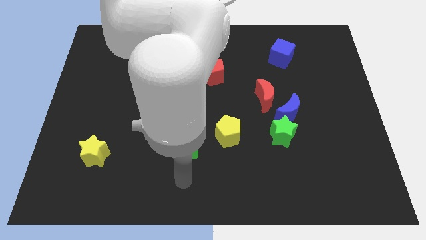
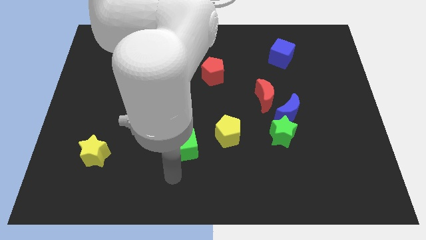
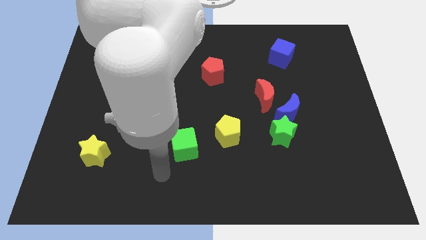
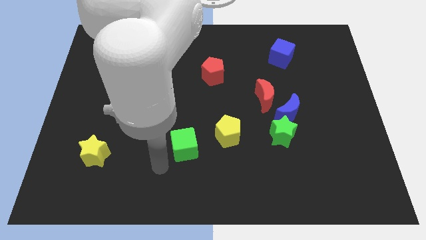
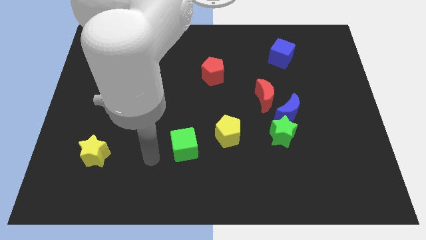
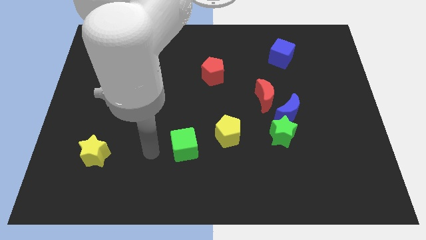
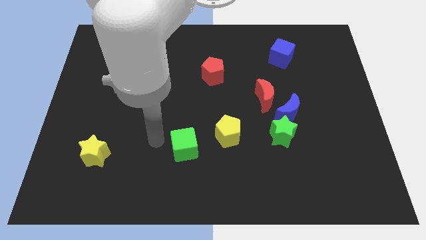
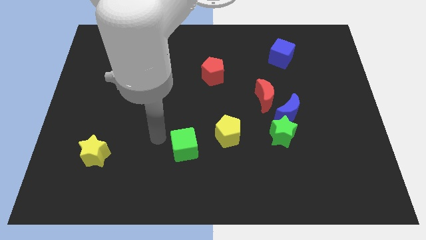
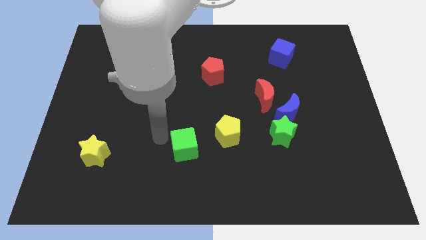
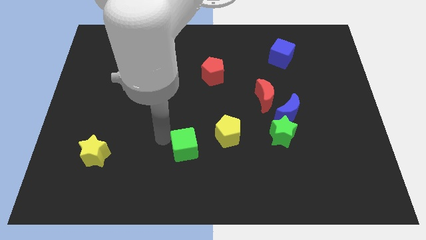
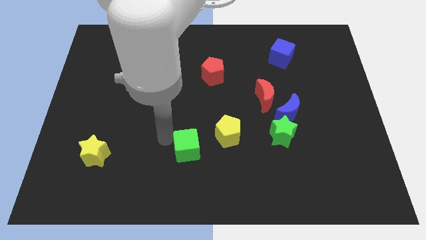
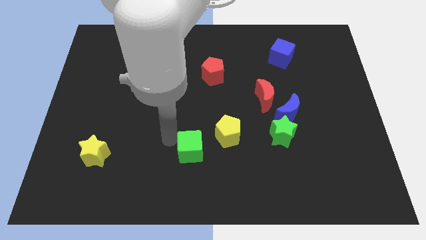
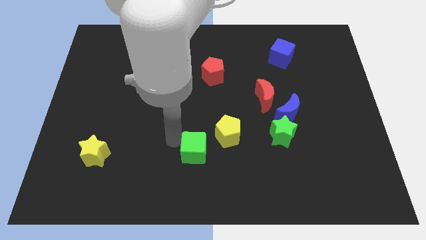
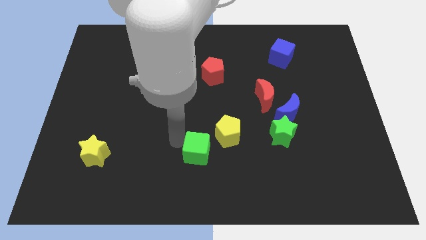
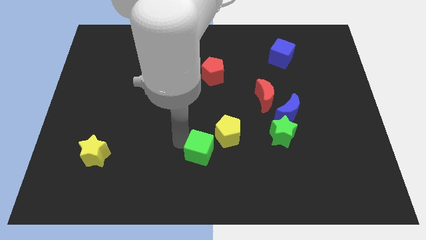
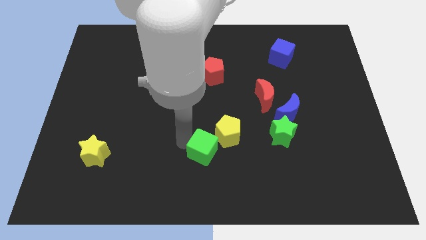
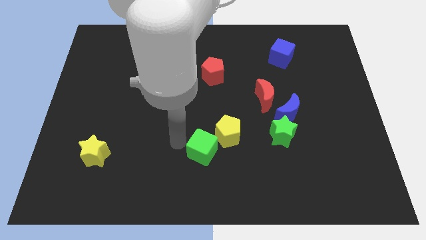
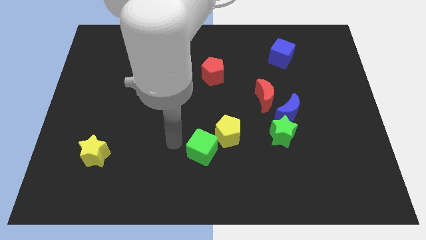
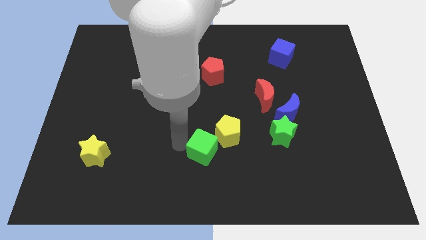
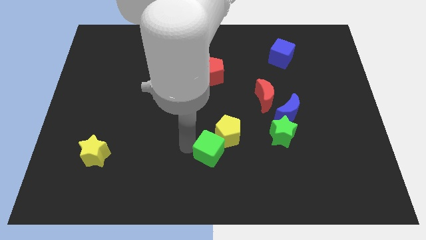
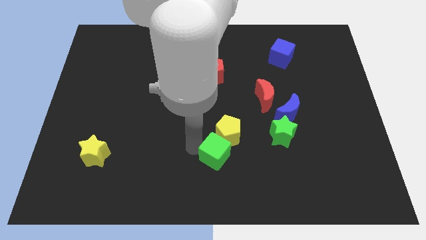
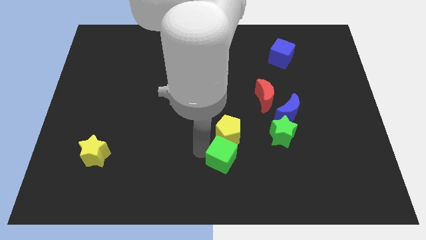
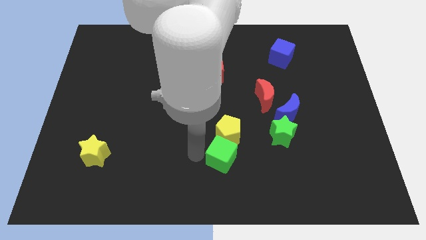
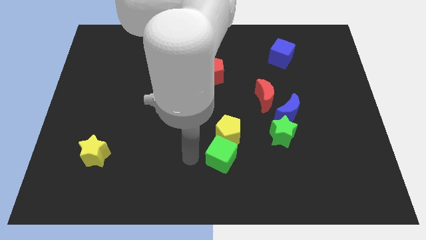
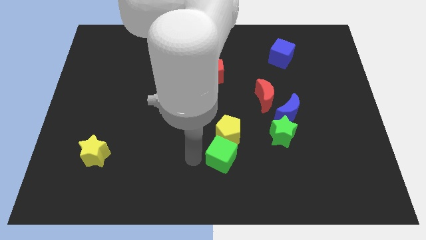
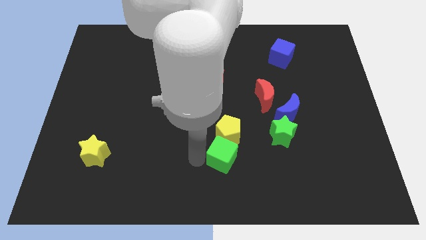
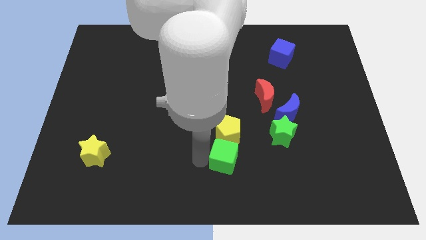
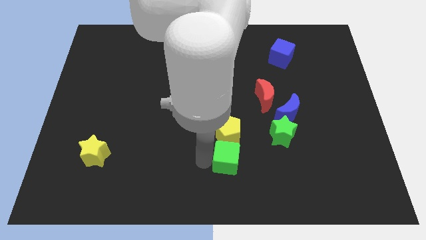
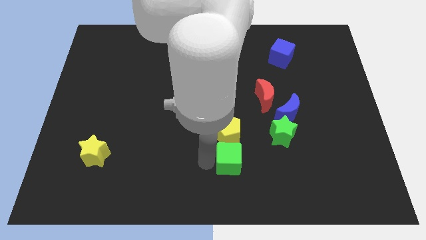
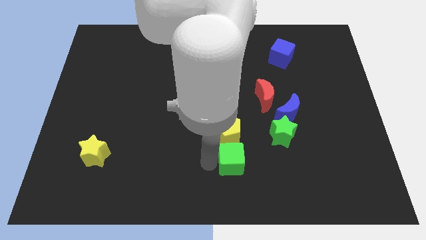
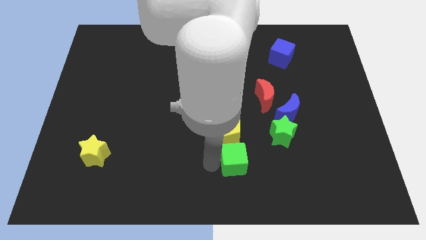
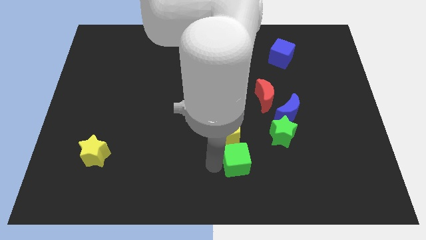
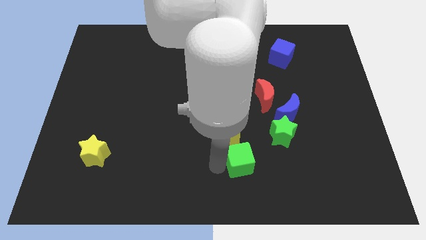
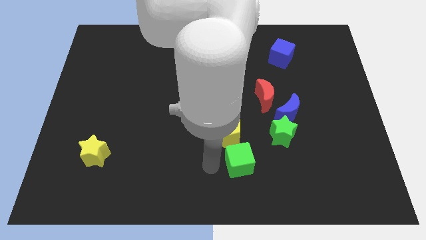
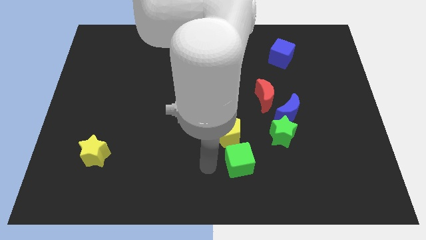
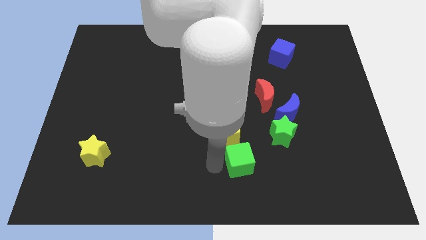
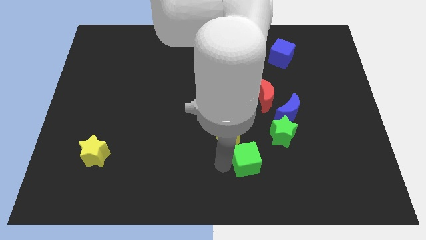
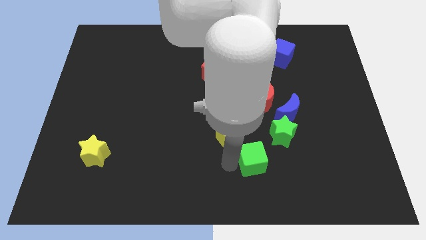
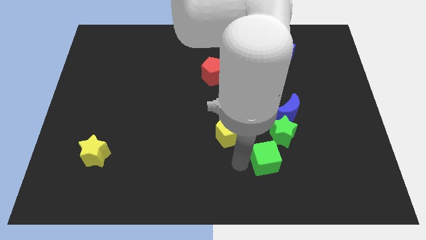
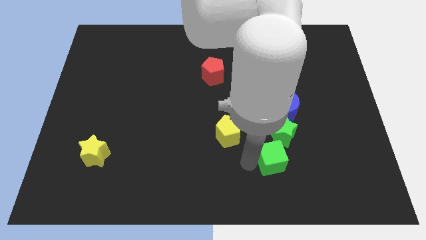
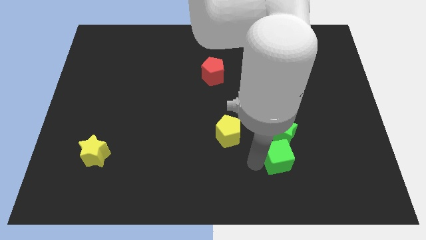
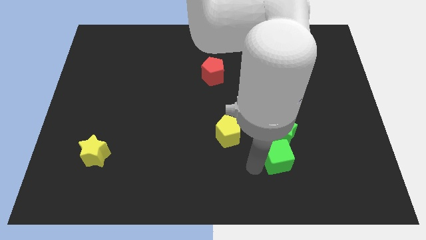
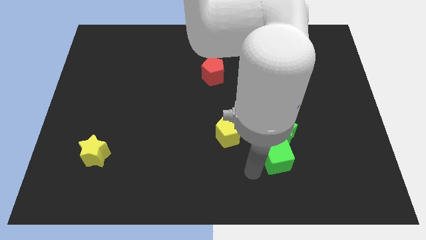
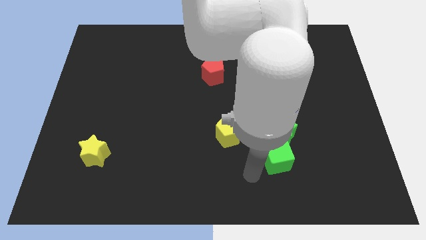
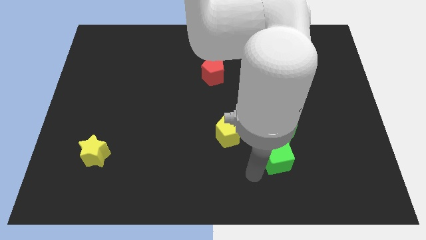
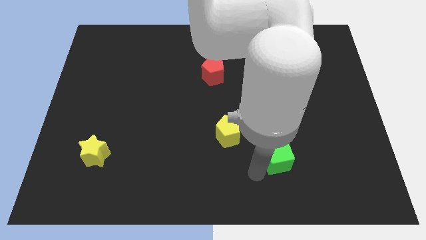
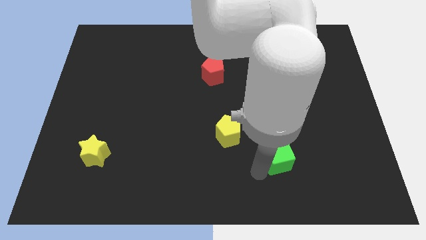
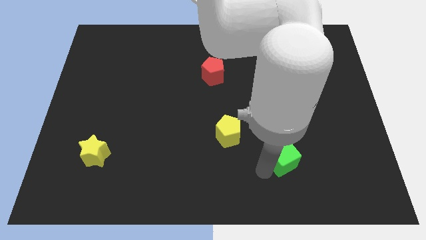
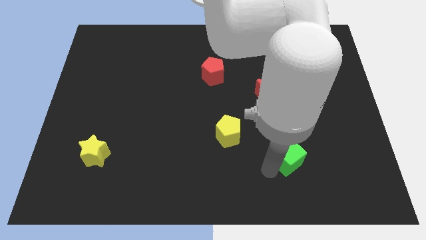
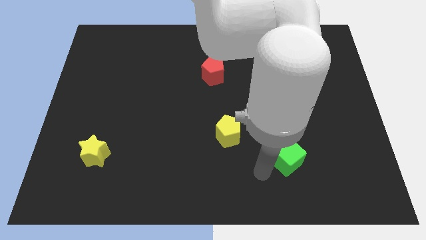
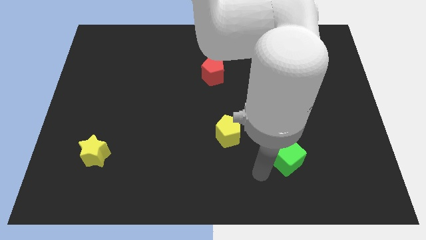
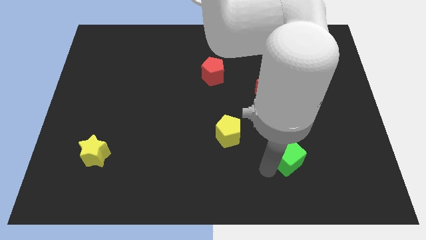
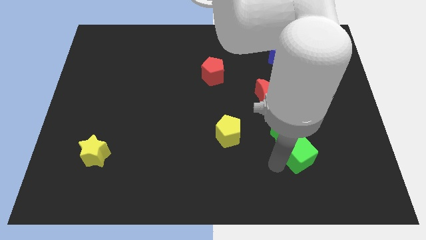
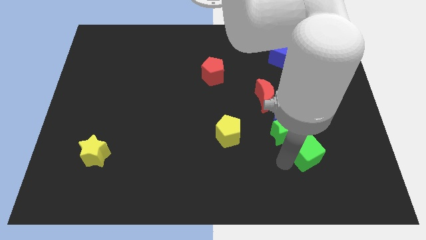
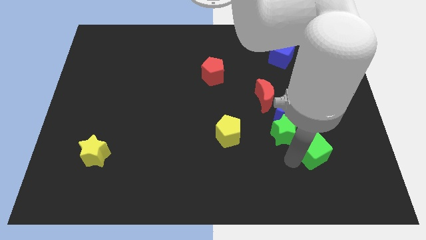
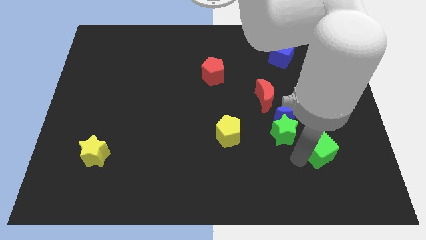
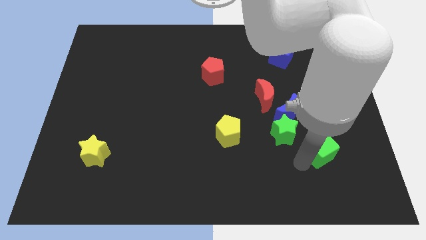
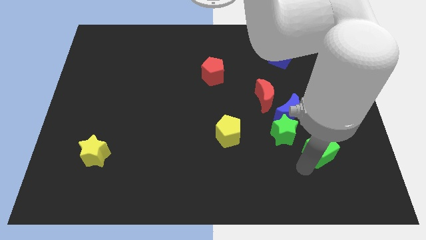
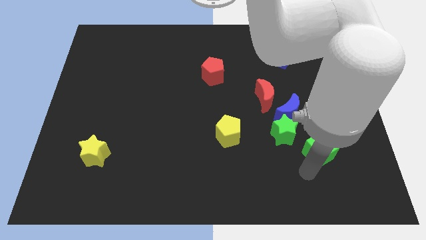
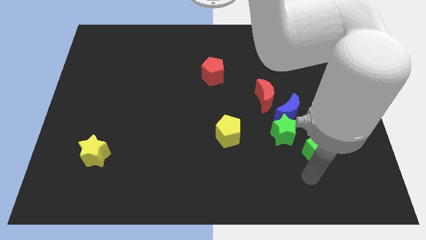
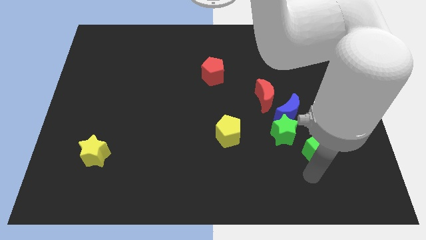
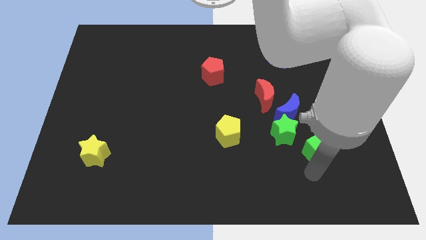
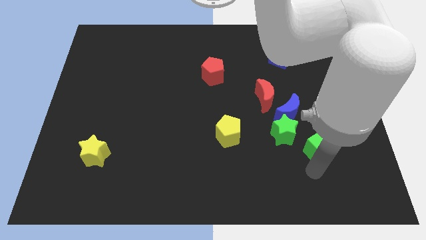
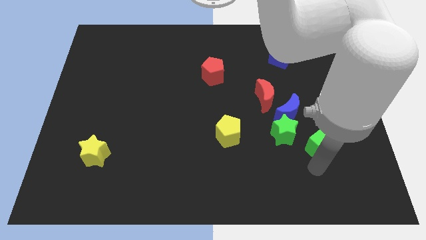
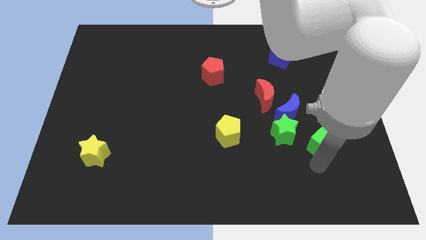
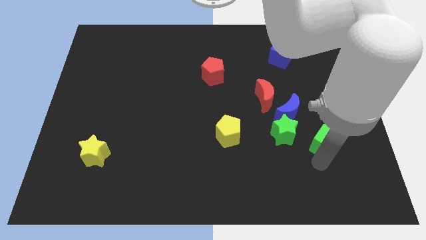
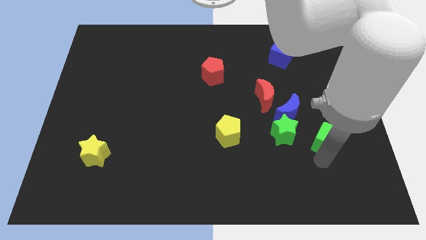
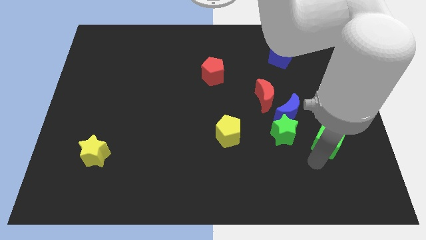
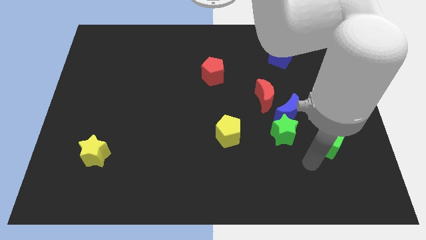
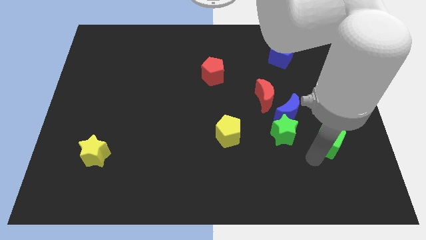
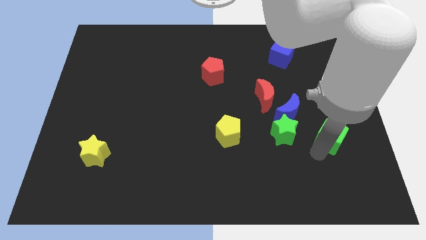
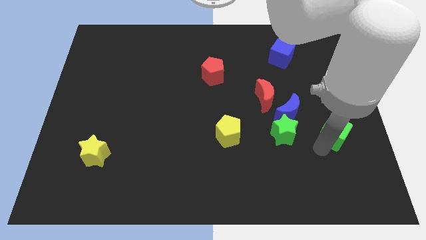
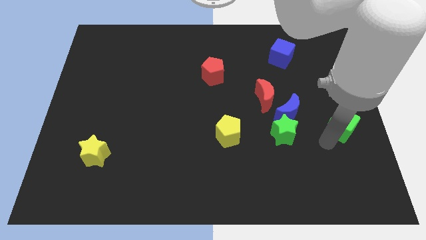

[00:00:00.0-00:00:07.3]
slide the green cube to the center right
